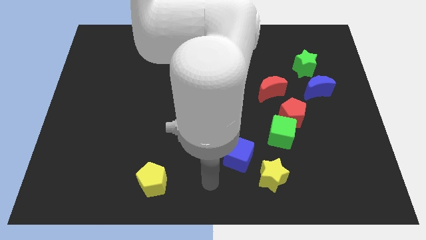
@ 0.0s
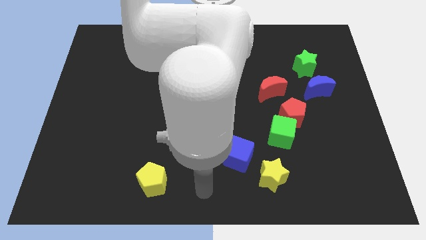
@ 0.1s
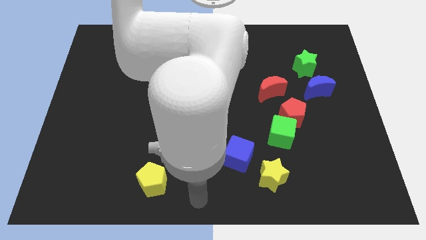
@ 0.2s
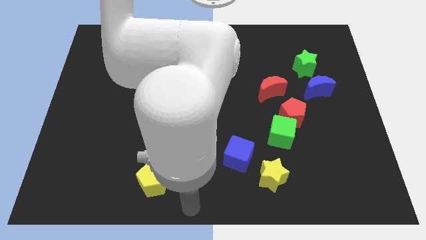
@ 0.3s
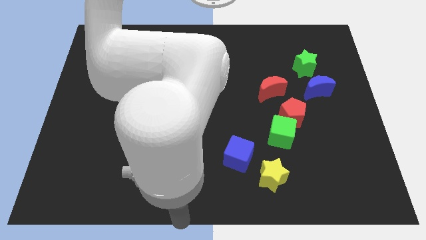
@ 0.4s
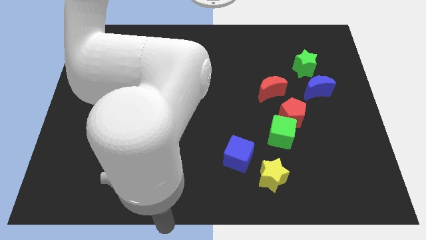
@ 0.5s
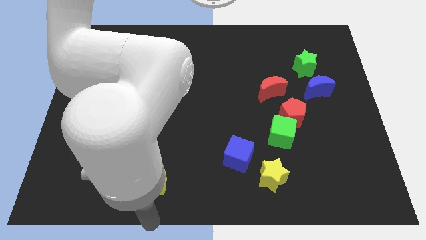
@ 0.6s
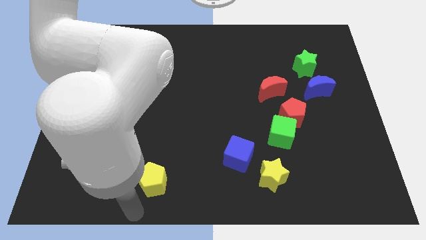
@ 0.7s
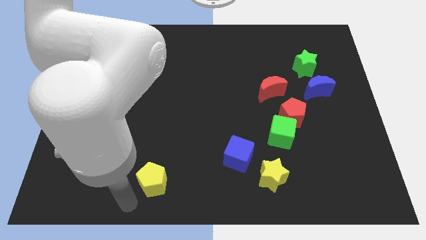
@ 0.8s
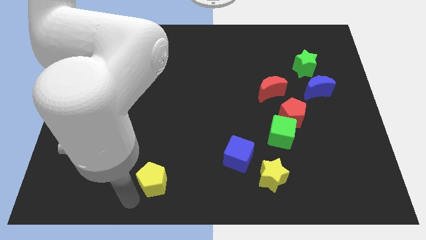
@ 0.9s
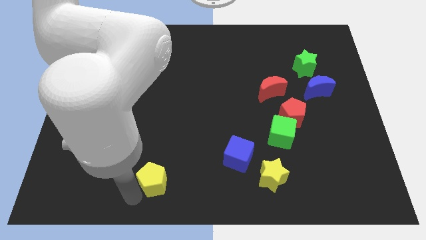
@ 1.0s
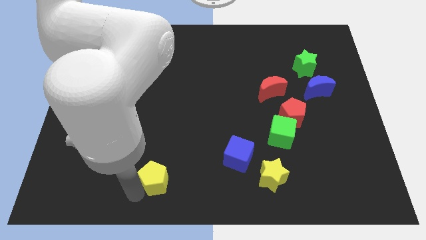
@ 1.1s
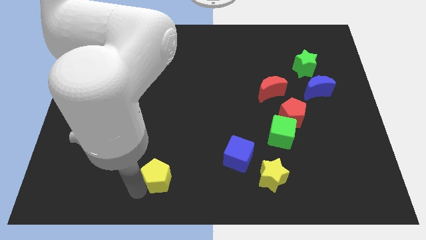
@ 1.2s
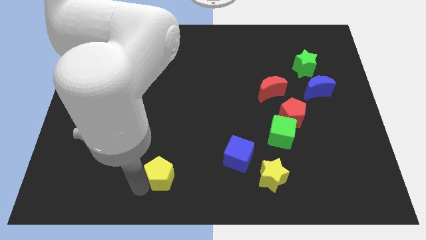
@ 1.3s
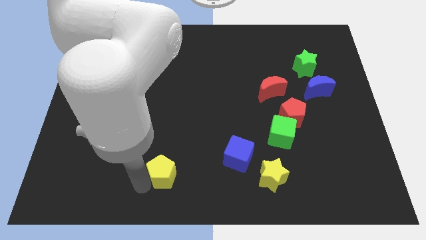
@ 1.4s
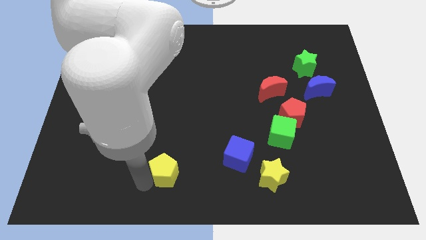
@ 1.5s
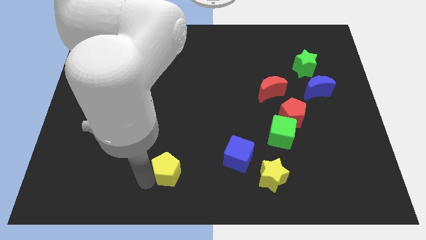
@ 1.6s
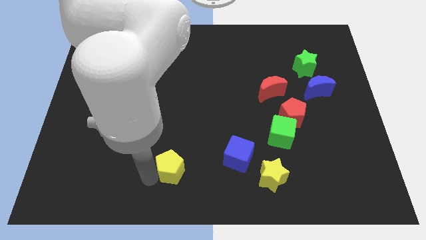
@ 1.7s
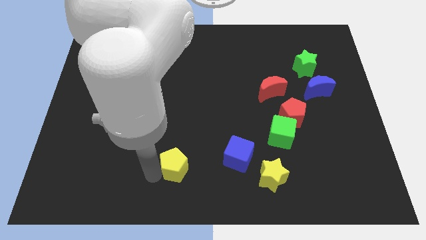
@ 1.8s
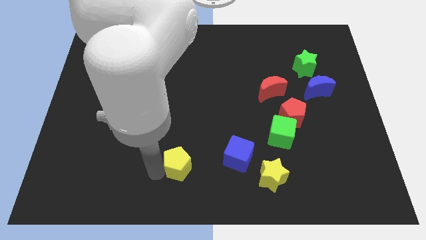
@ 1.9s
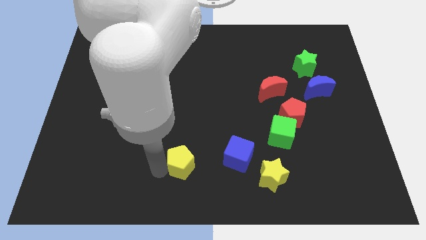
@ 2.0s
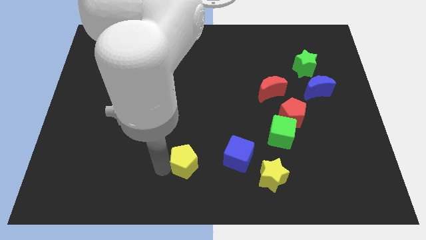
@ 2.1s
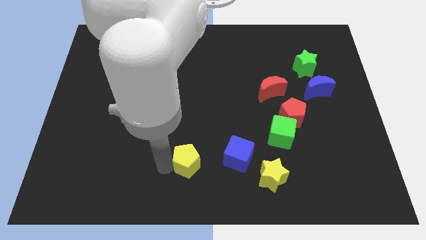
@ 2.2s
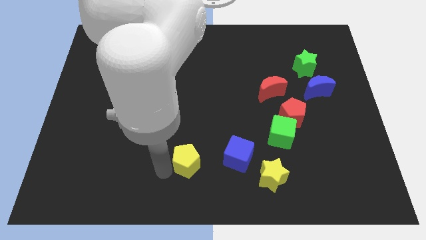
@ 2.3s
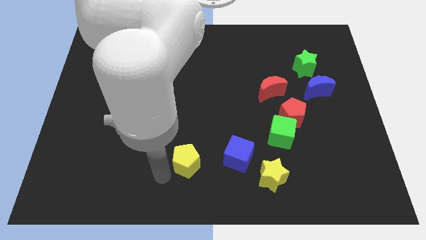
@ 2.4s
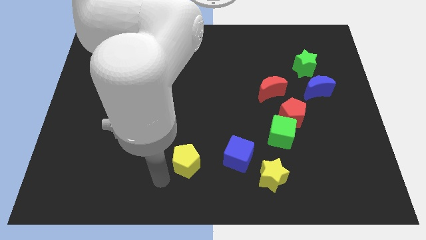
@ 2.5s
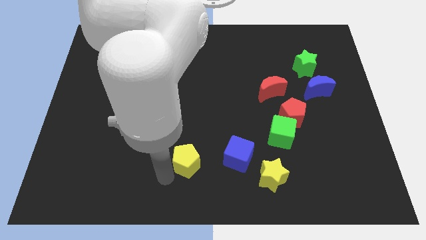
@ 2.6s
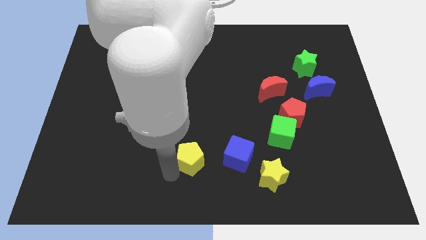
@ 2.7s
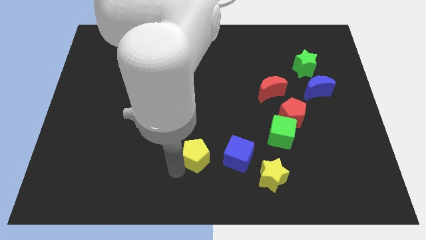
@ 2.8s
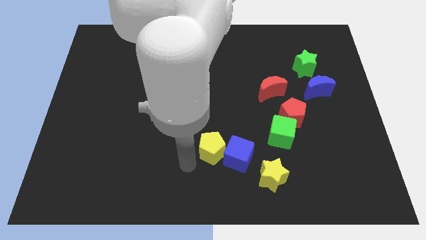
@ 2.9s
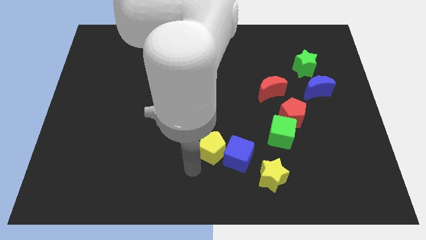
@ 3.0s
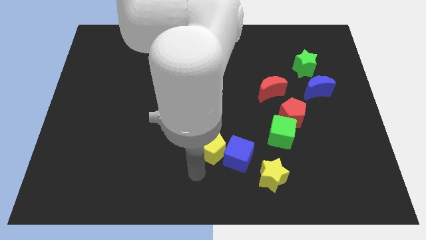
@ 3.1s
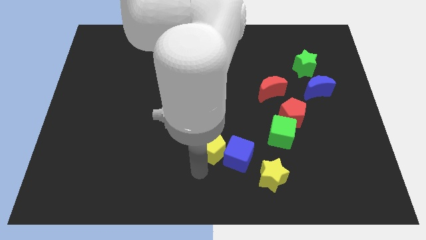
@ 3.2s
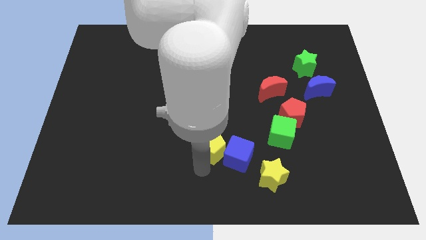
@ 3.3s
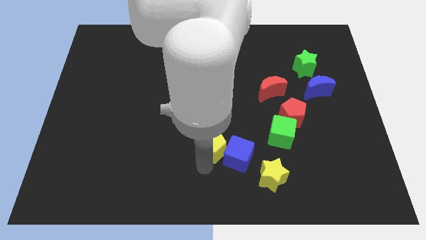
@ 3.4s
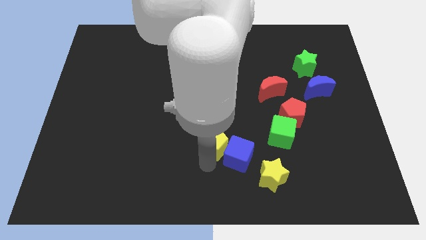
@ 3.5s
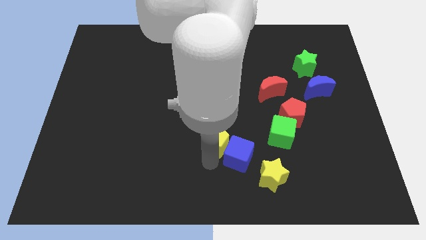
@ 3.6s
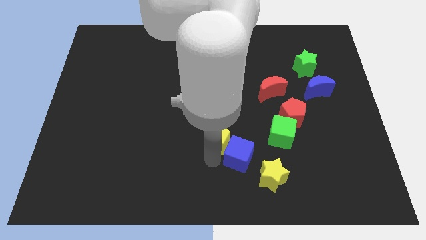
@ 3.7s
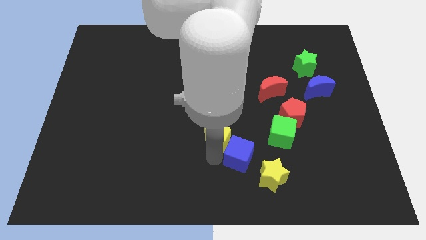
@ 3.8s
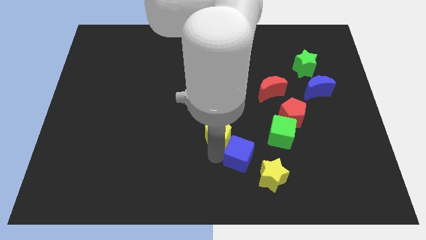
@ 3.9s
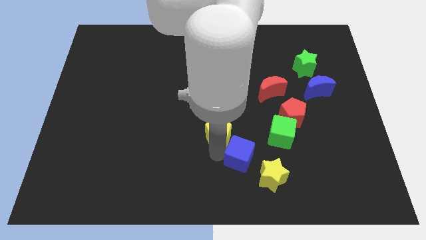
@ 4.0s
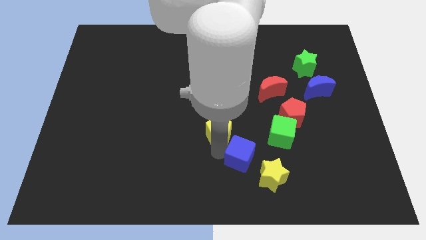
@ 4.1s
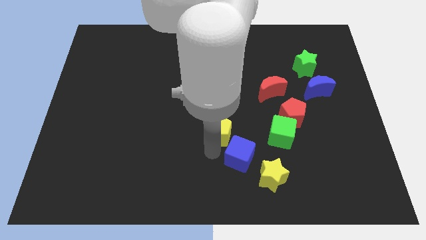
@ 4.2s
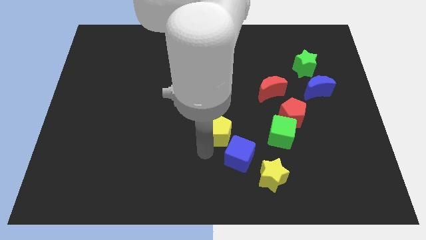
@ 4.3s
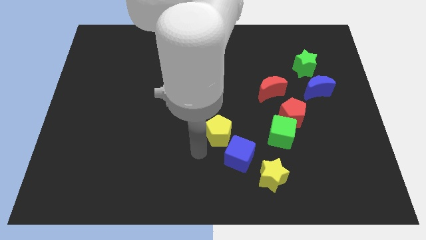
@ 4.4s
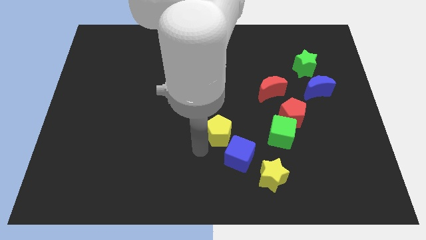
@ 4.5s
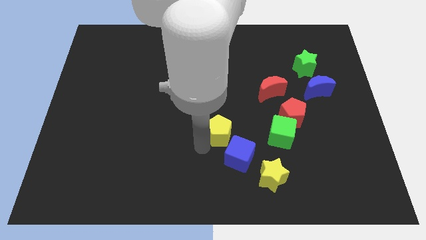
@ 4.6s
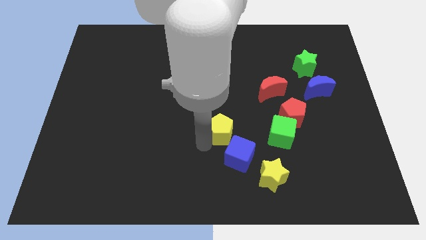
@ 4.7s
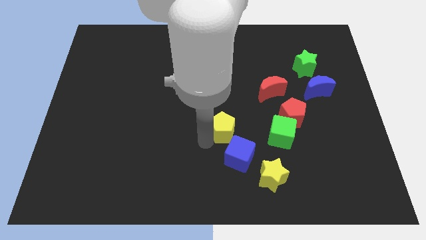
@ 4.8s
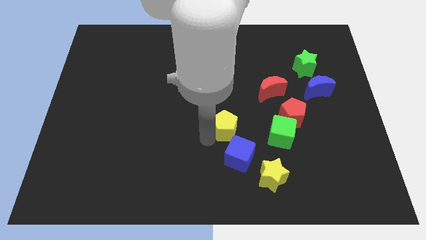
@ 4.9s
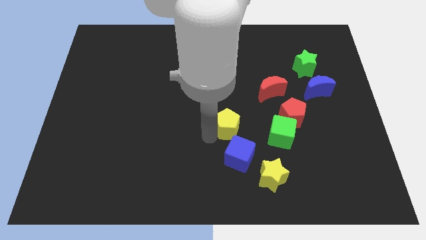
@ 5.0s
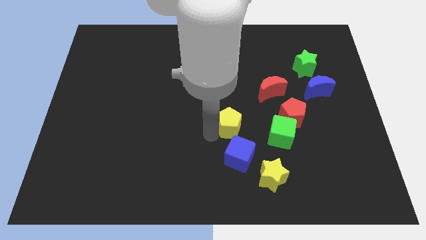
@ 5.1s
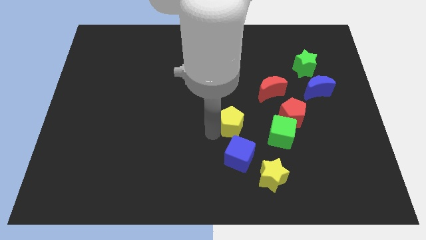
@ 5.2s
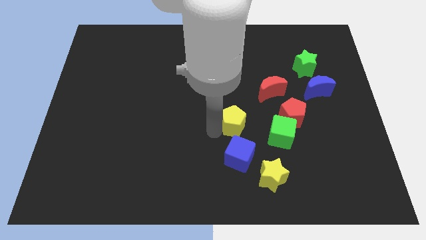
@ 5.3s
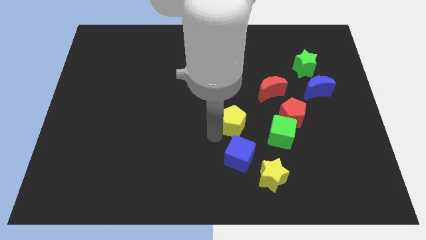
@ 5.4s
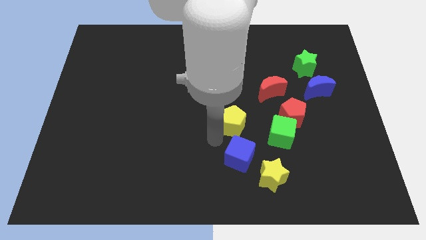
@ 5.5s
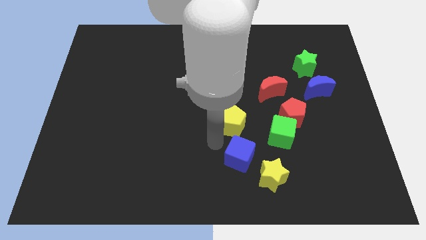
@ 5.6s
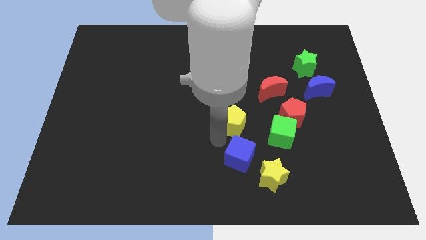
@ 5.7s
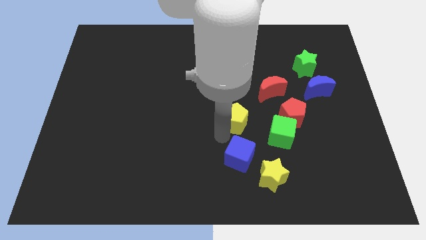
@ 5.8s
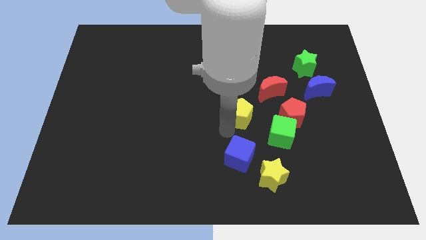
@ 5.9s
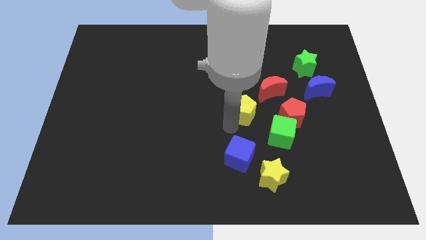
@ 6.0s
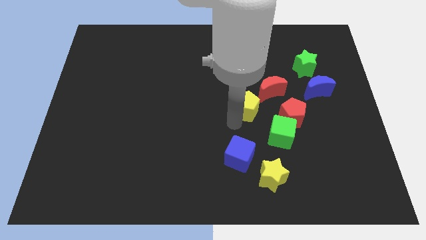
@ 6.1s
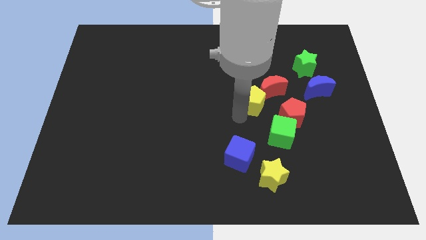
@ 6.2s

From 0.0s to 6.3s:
put the yellow pentagon towards the red moon
